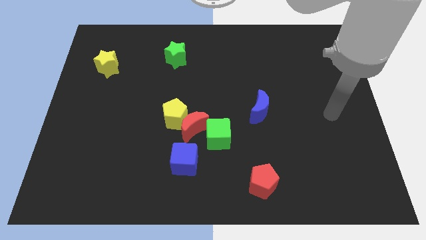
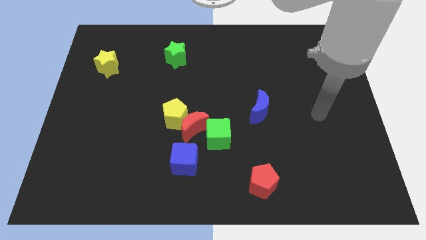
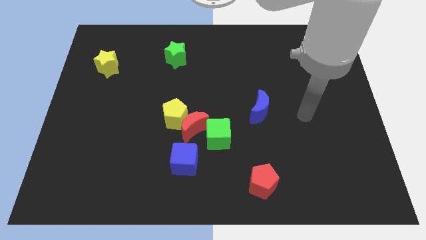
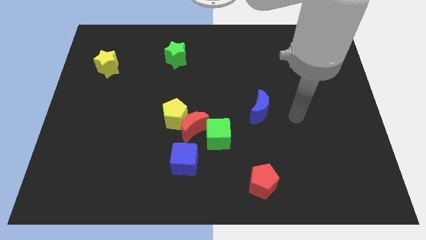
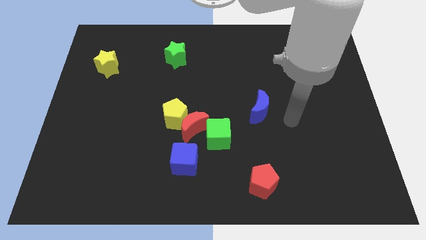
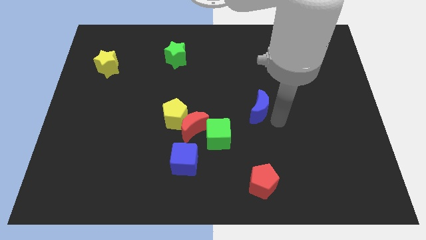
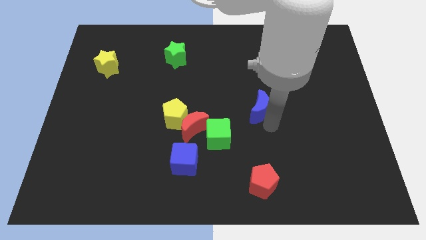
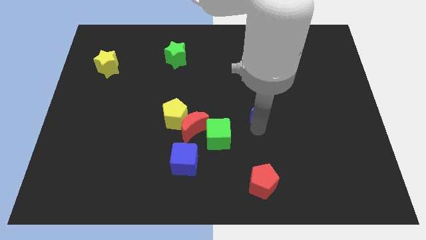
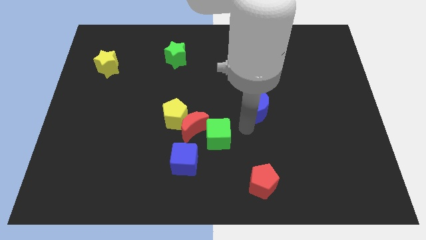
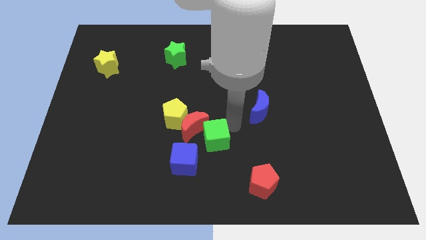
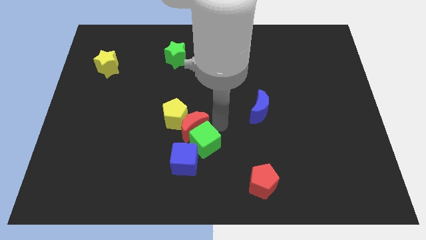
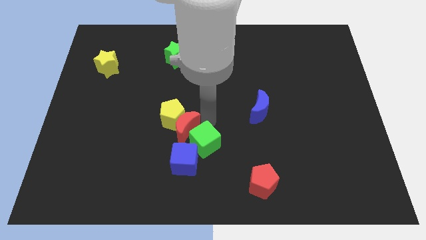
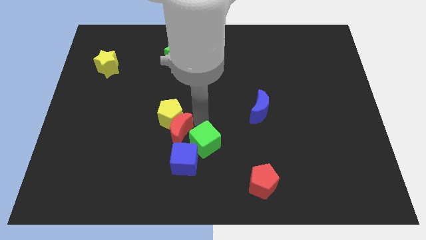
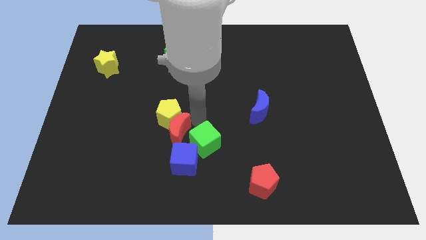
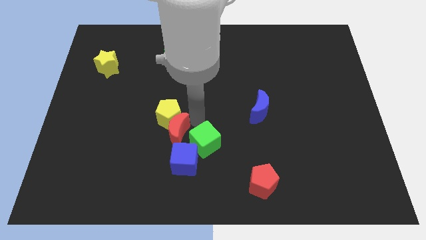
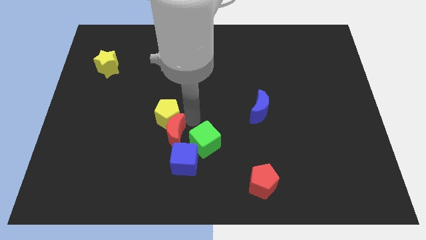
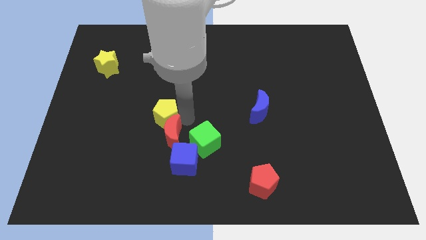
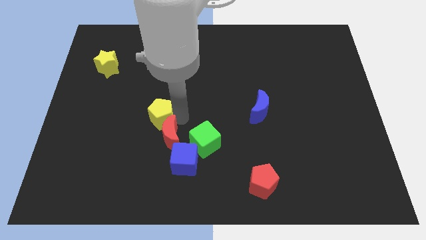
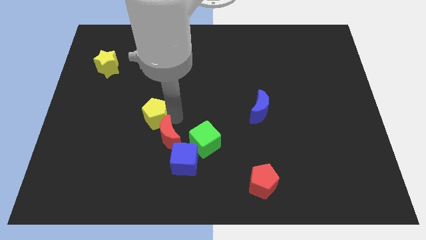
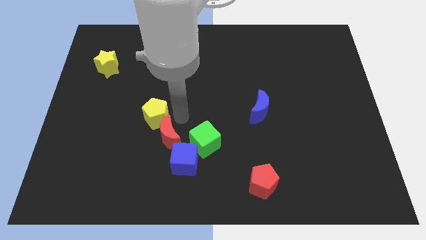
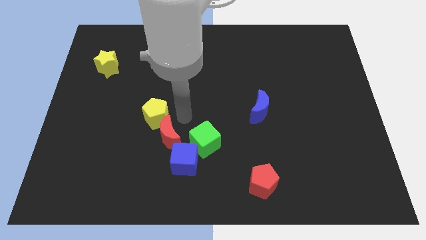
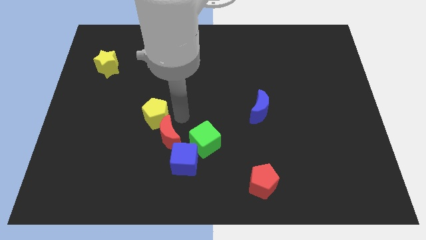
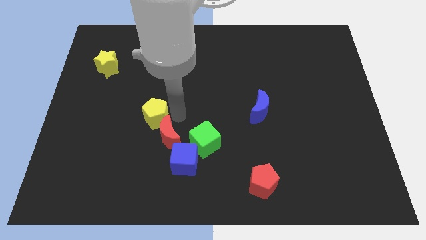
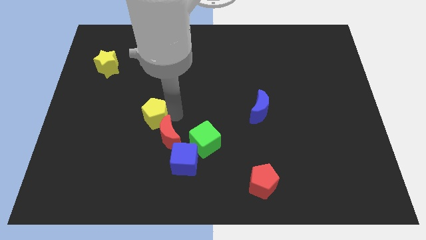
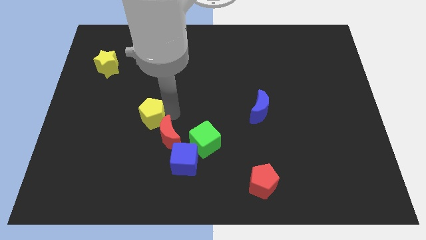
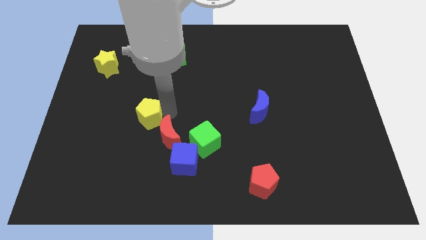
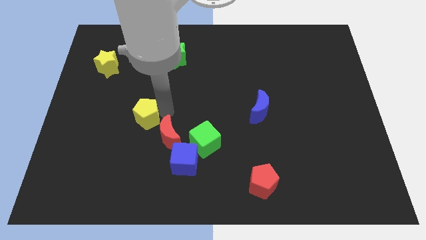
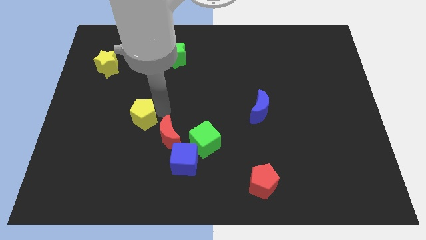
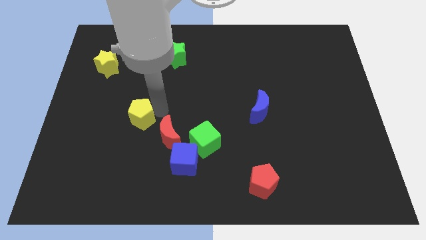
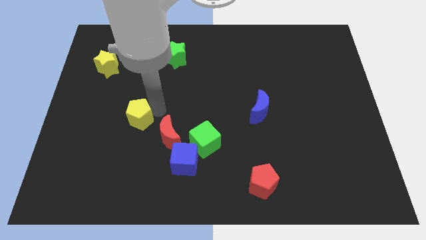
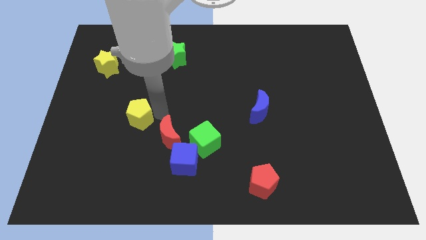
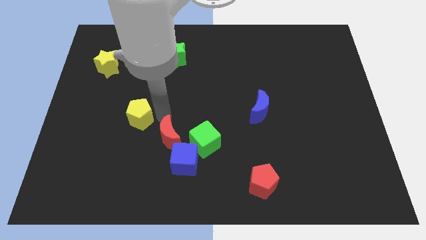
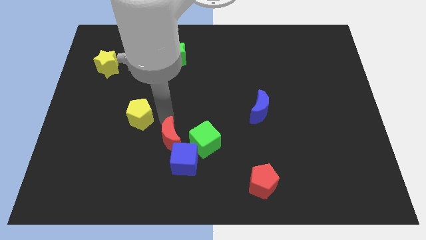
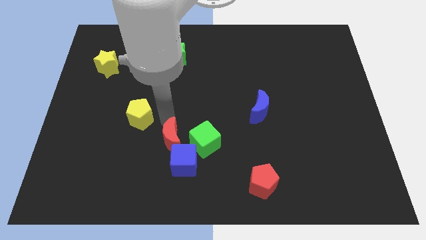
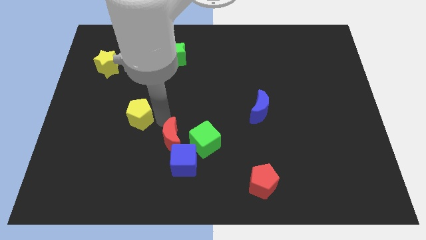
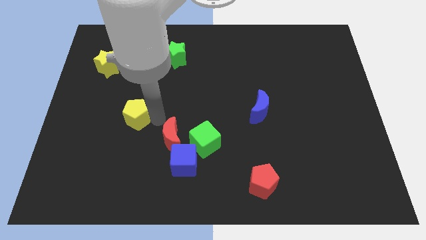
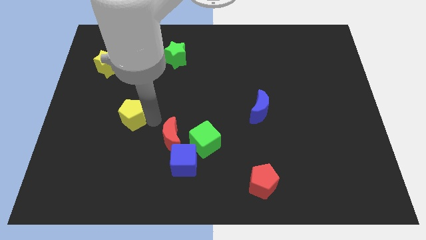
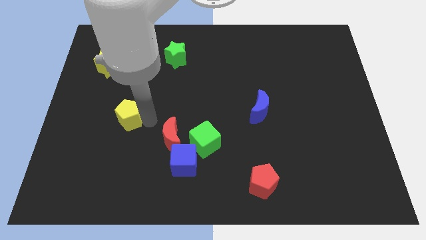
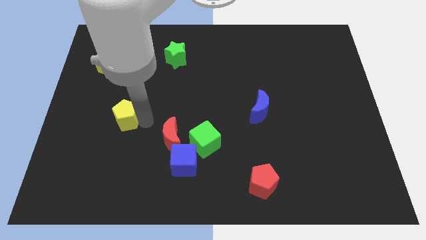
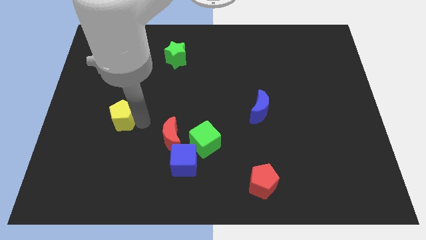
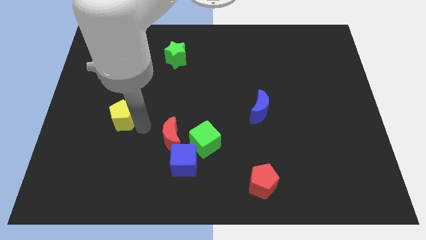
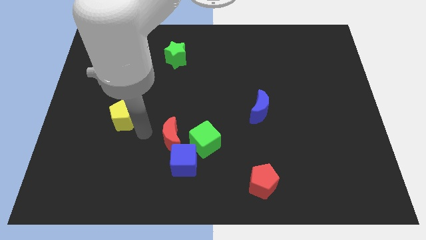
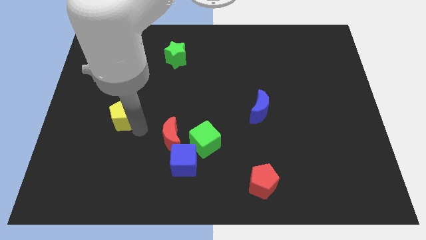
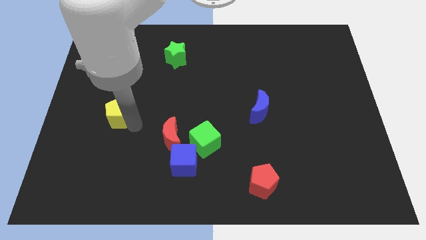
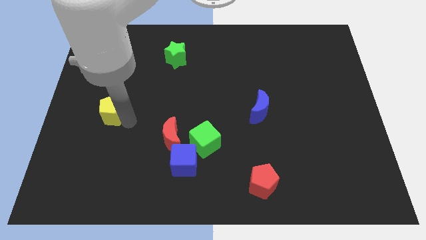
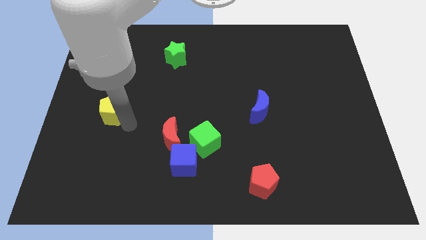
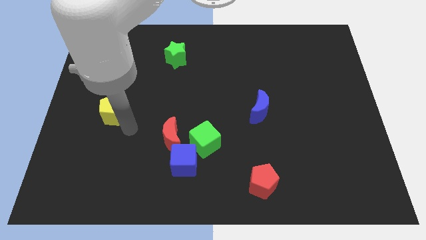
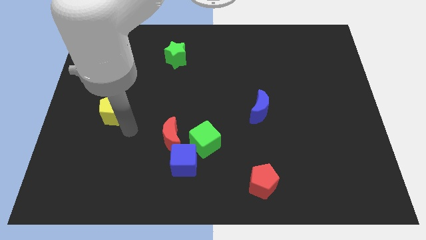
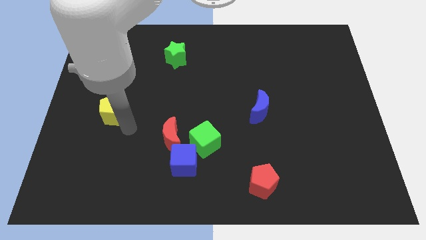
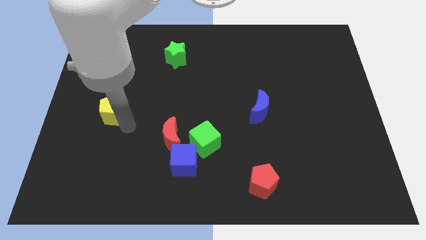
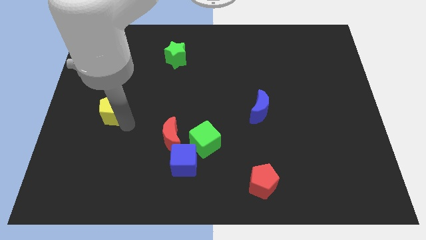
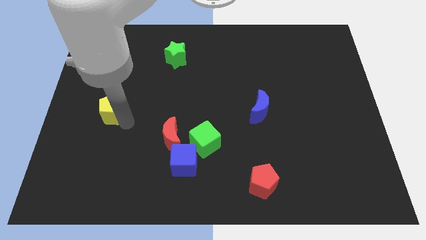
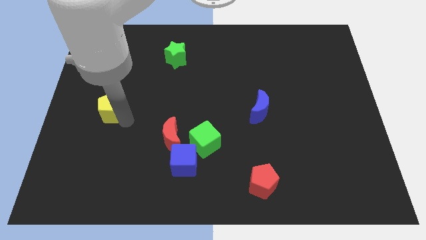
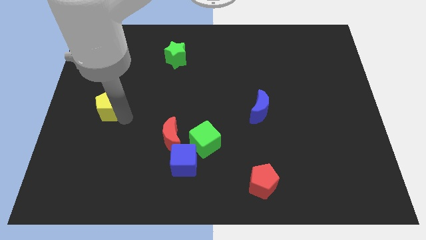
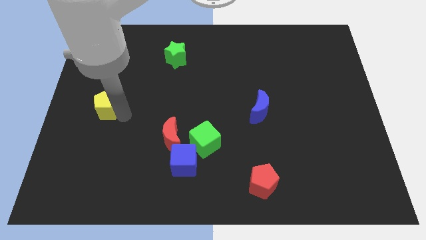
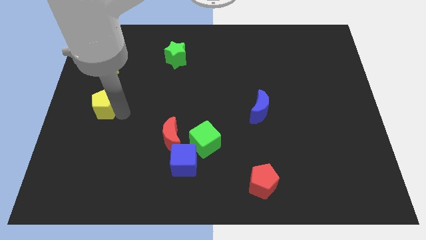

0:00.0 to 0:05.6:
slide the yellow pentagon to the left side of the board
